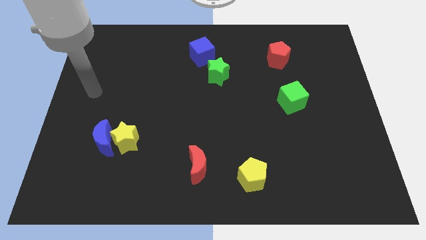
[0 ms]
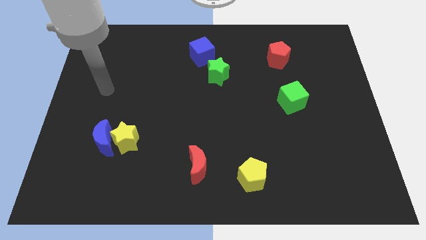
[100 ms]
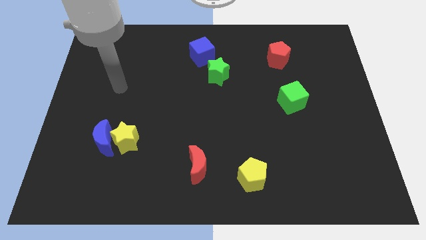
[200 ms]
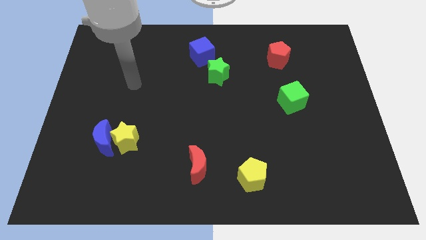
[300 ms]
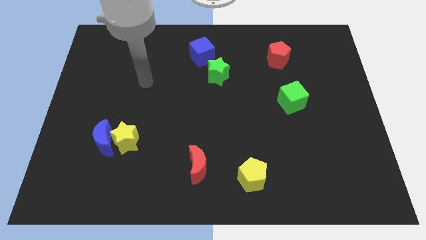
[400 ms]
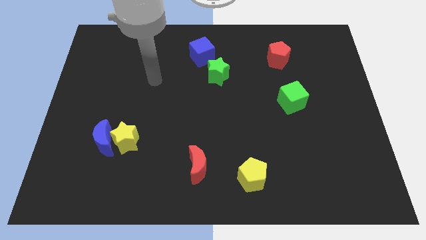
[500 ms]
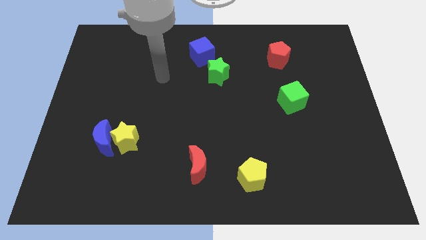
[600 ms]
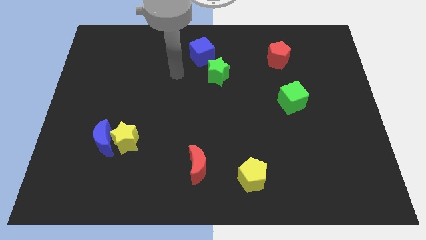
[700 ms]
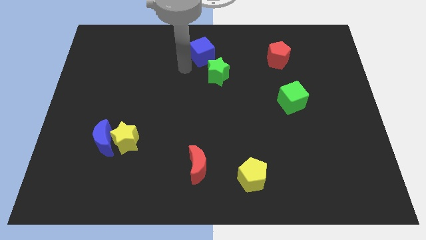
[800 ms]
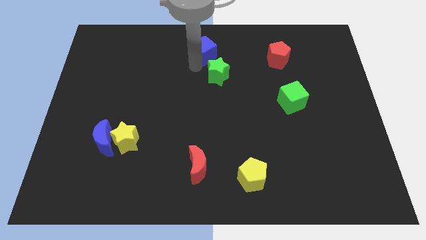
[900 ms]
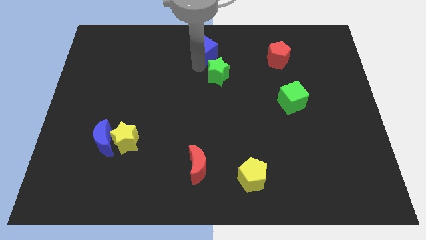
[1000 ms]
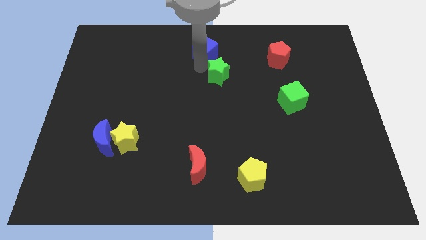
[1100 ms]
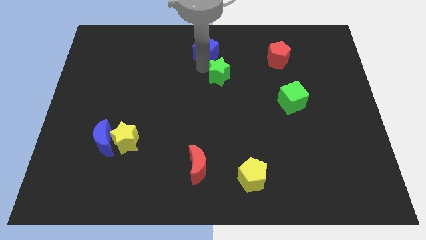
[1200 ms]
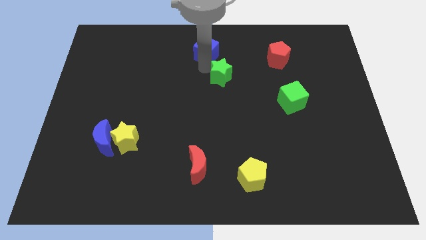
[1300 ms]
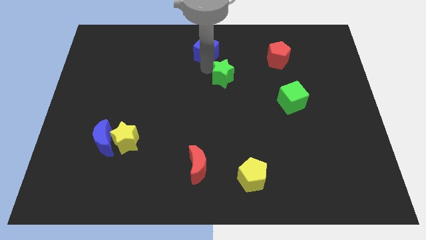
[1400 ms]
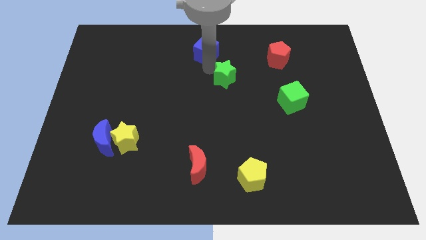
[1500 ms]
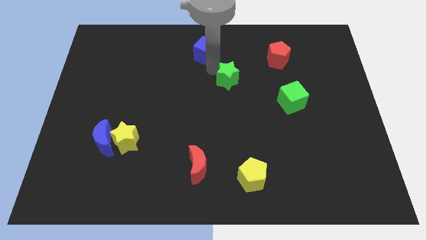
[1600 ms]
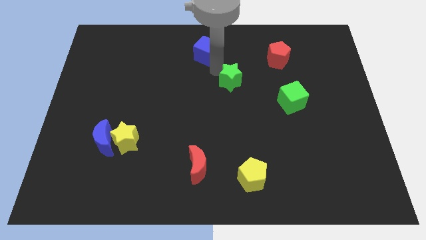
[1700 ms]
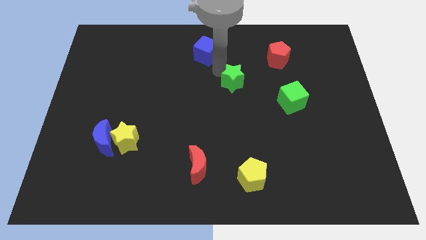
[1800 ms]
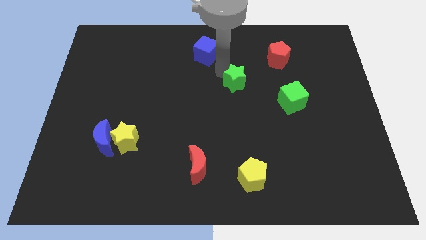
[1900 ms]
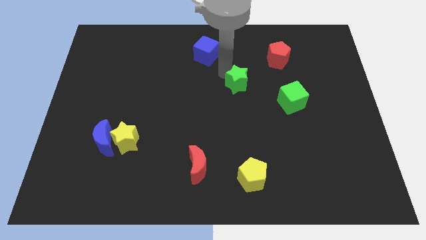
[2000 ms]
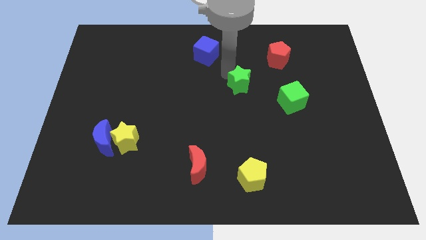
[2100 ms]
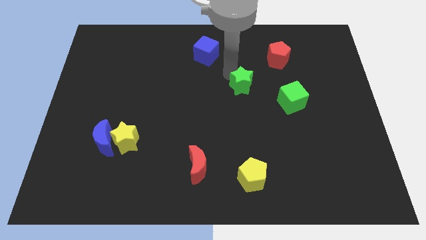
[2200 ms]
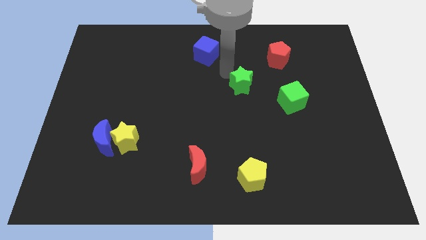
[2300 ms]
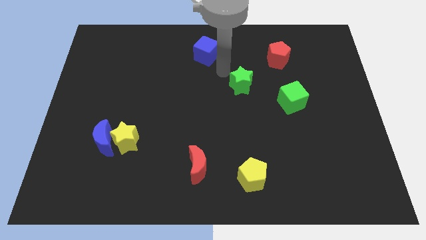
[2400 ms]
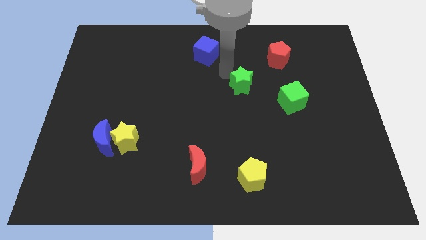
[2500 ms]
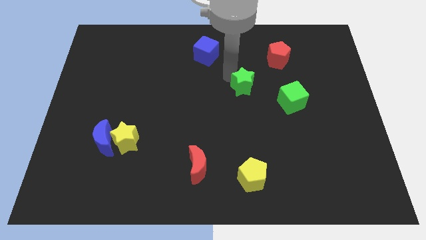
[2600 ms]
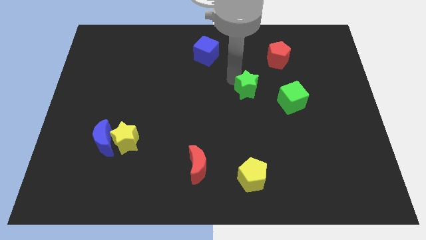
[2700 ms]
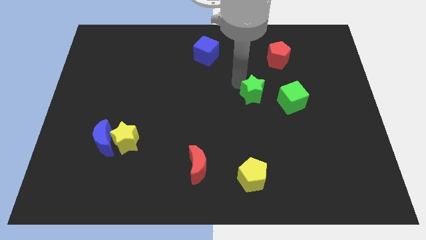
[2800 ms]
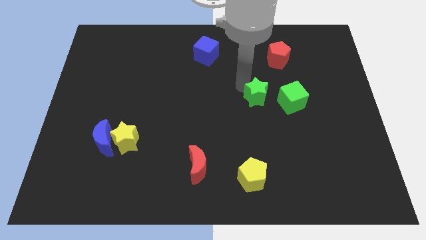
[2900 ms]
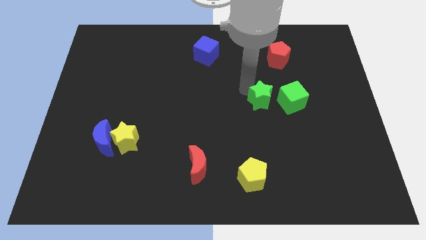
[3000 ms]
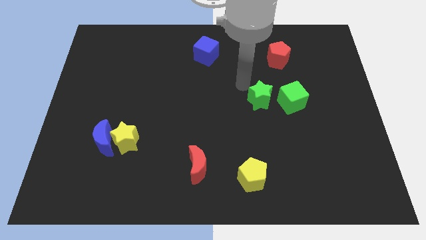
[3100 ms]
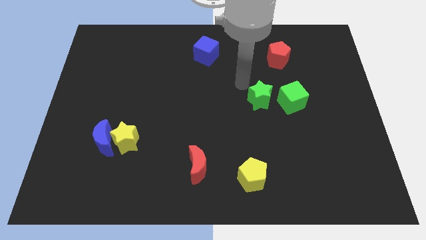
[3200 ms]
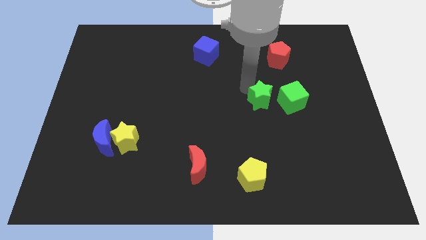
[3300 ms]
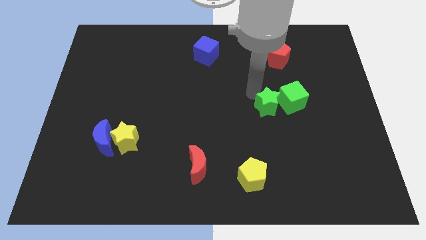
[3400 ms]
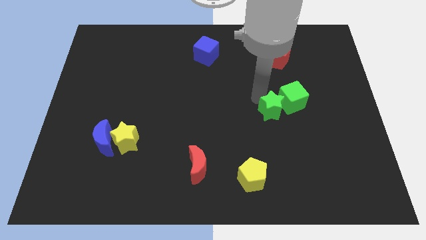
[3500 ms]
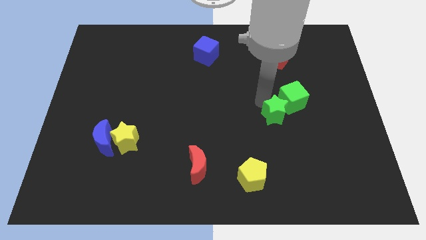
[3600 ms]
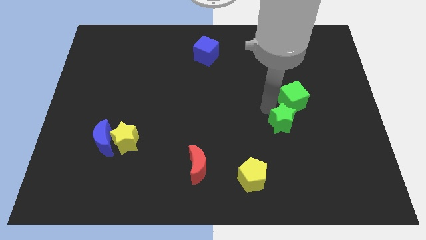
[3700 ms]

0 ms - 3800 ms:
push the green star downwards and then to the right

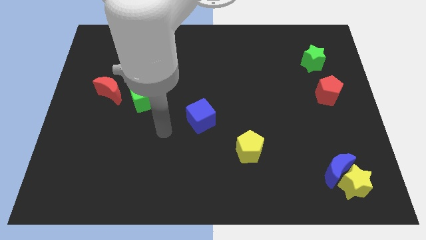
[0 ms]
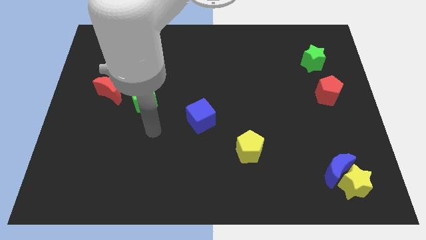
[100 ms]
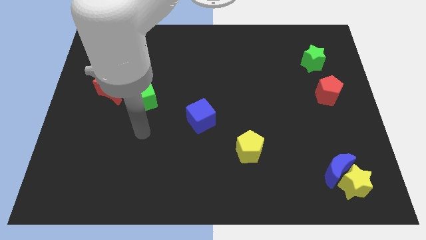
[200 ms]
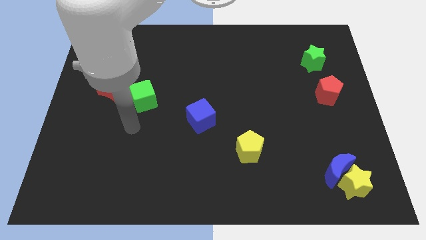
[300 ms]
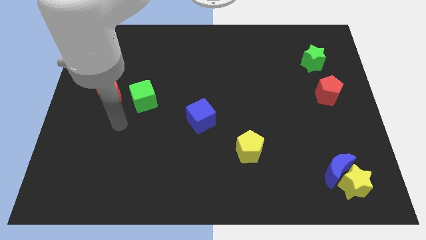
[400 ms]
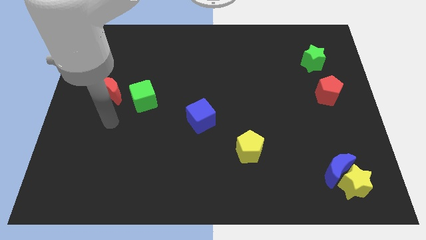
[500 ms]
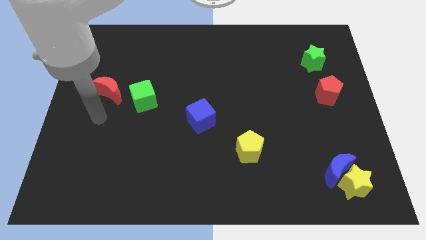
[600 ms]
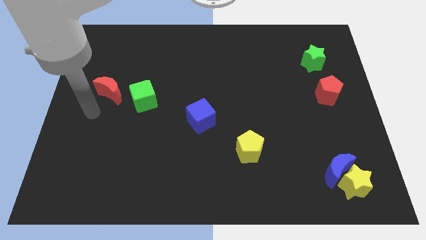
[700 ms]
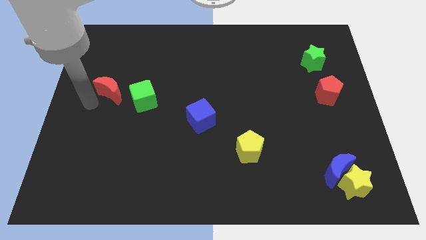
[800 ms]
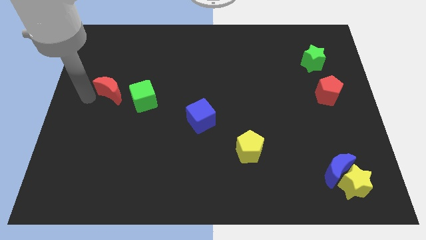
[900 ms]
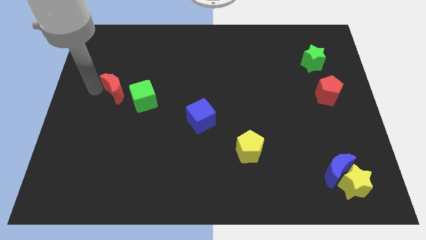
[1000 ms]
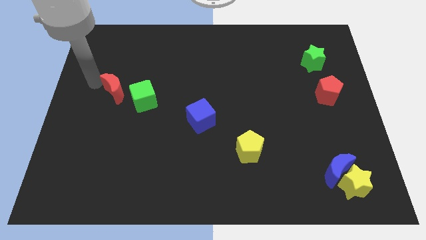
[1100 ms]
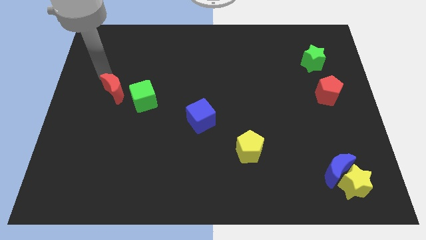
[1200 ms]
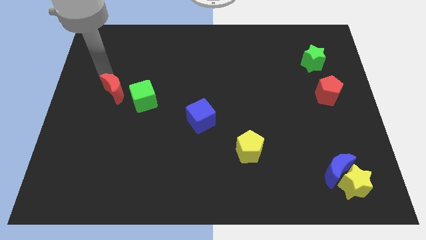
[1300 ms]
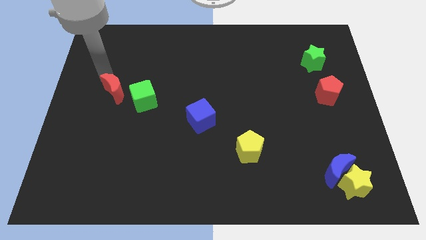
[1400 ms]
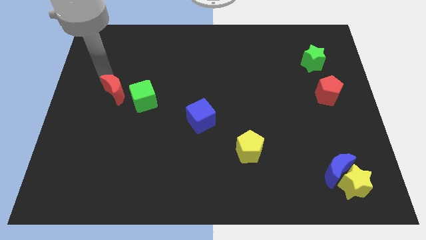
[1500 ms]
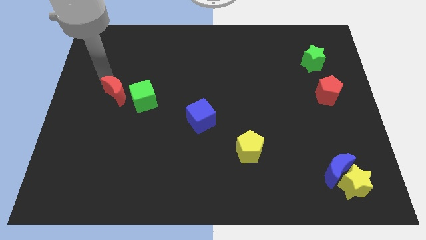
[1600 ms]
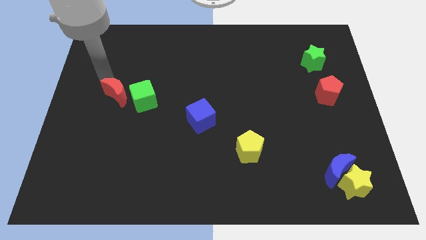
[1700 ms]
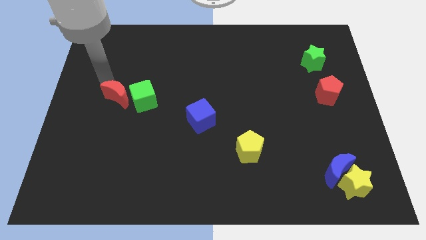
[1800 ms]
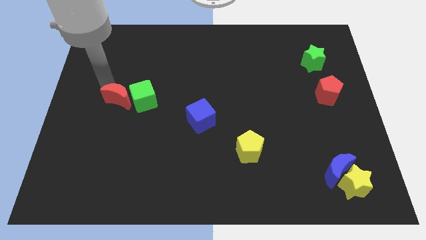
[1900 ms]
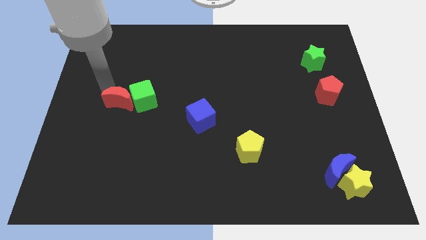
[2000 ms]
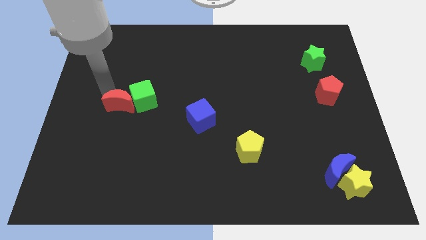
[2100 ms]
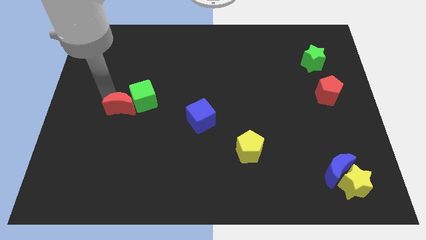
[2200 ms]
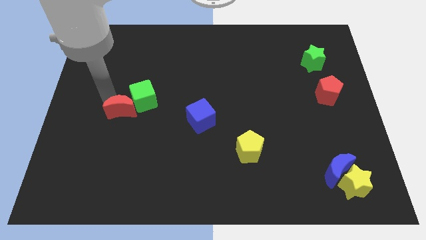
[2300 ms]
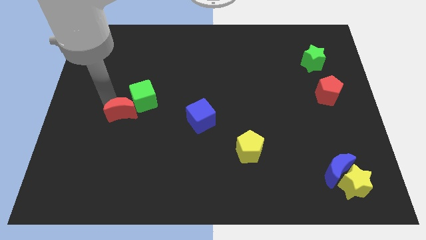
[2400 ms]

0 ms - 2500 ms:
slide the red moon downwards and to the right slightly

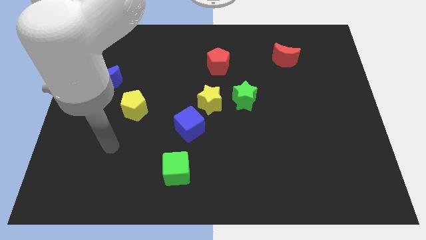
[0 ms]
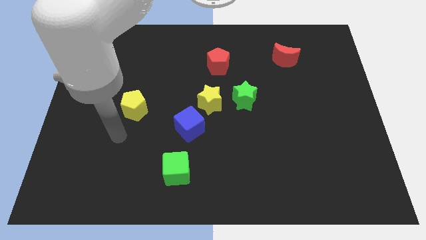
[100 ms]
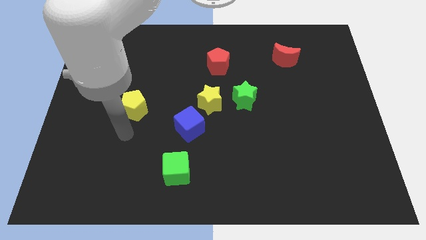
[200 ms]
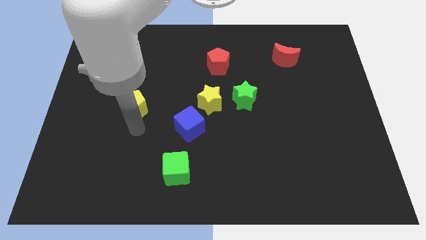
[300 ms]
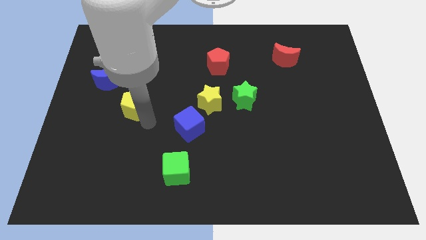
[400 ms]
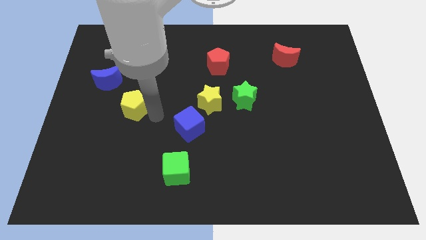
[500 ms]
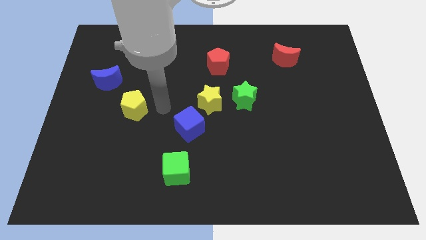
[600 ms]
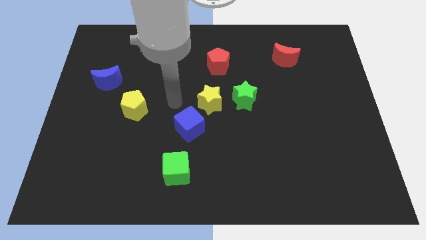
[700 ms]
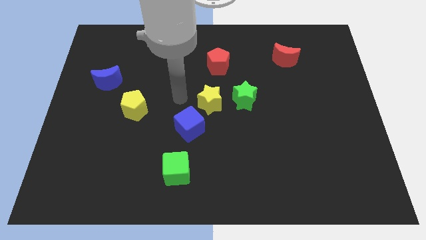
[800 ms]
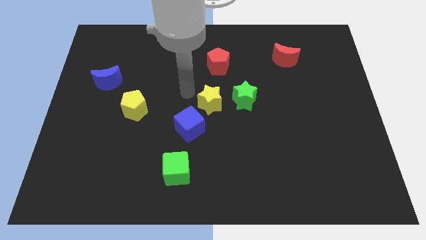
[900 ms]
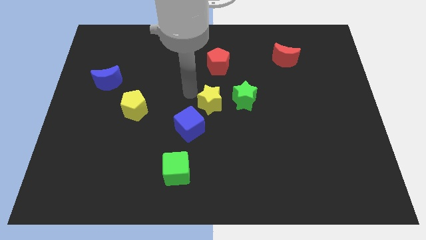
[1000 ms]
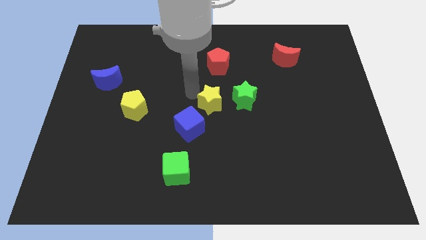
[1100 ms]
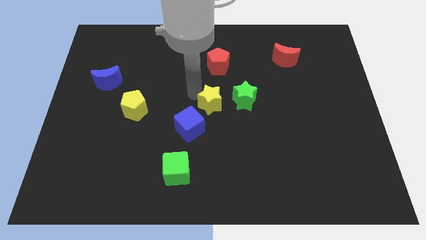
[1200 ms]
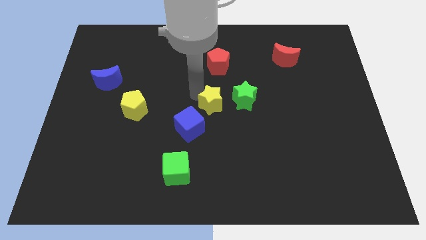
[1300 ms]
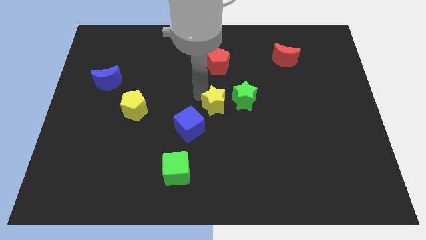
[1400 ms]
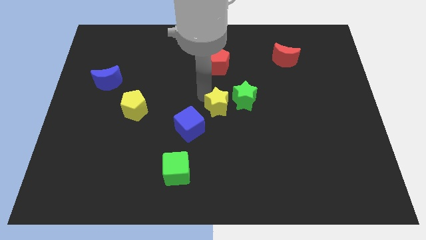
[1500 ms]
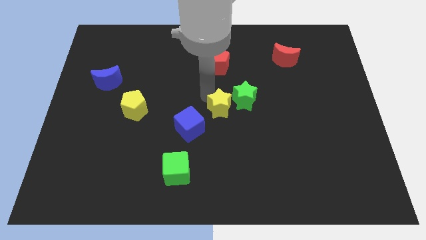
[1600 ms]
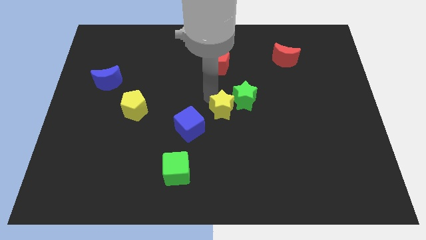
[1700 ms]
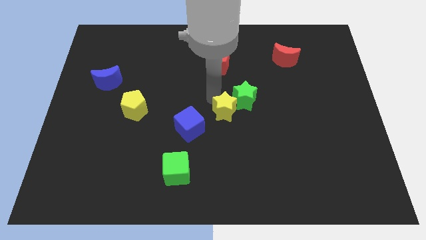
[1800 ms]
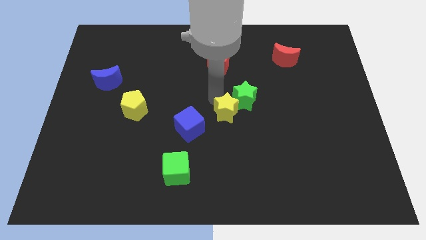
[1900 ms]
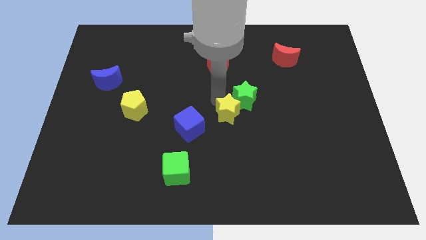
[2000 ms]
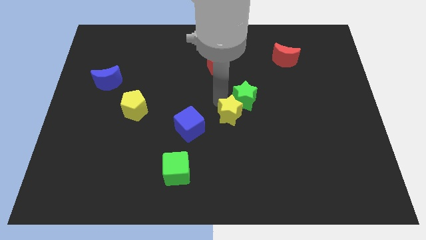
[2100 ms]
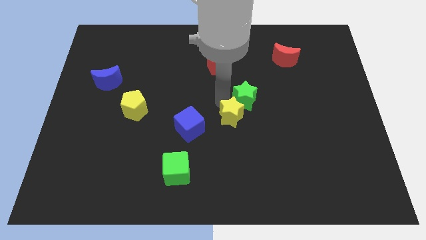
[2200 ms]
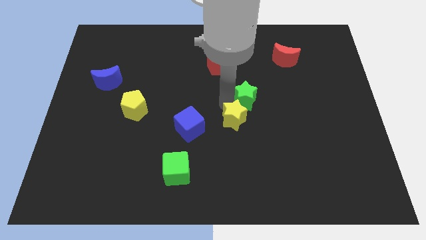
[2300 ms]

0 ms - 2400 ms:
push the yellow star downwards and then to the right a little
